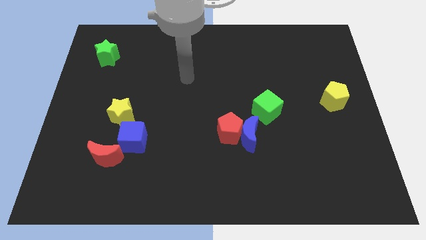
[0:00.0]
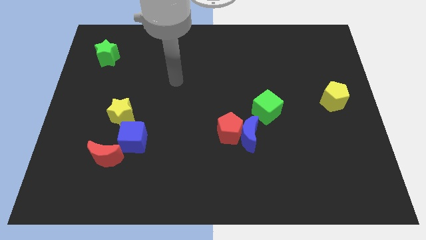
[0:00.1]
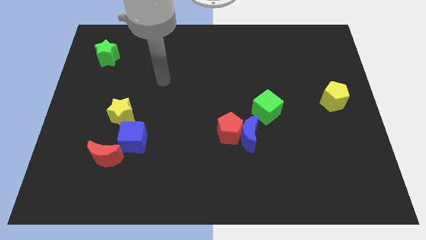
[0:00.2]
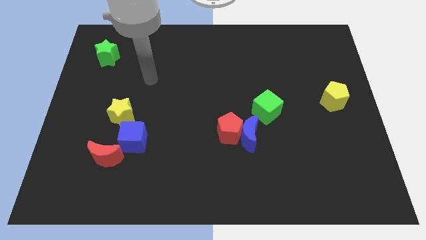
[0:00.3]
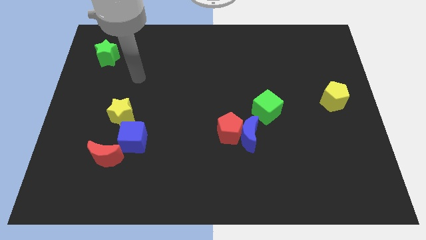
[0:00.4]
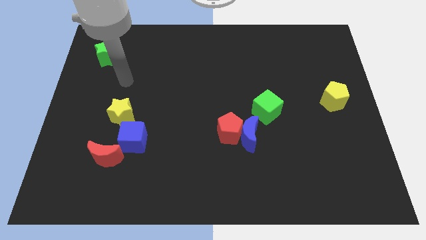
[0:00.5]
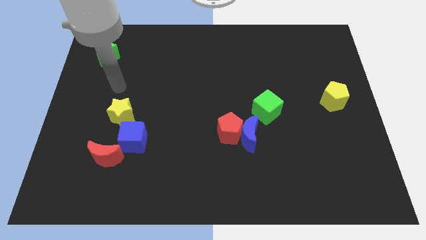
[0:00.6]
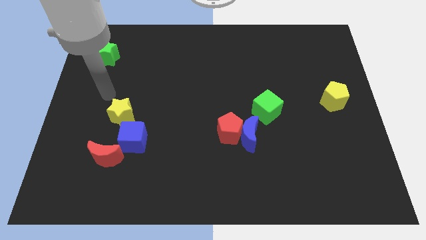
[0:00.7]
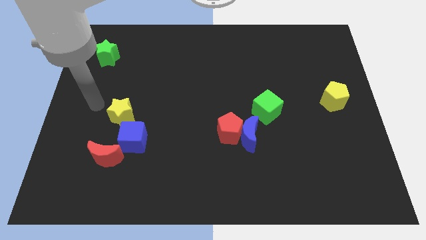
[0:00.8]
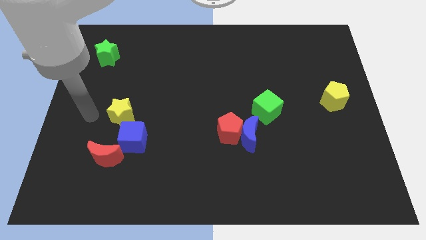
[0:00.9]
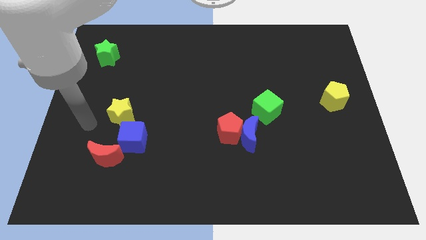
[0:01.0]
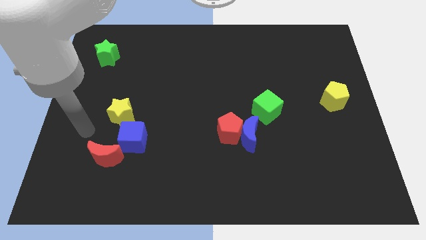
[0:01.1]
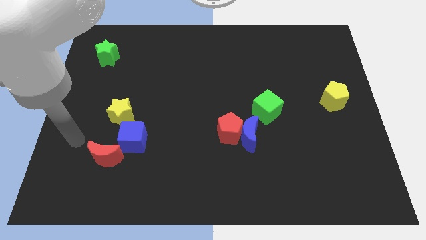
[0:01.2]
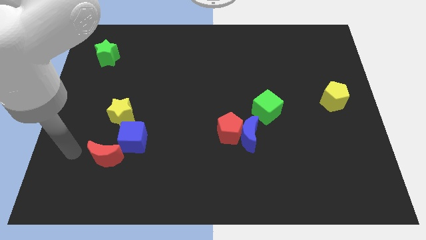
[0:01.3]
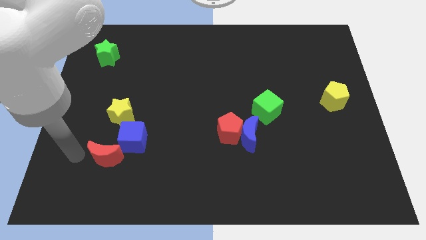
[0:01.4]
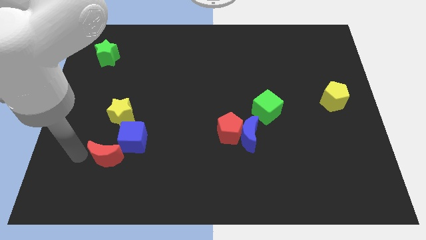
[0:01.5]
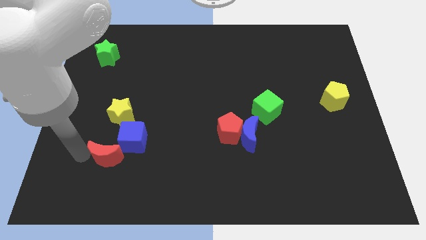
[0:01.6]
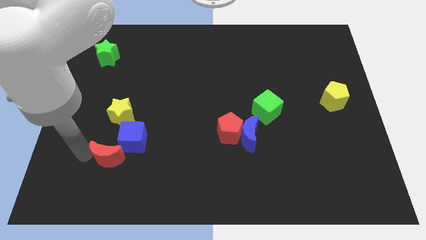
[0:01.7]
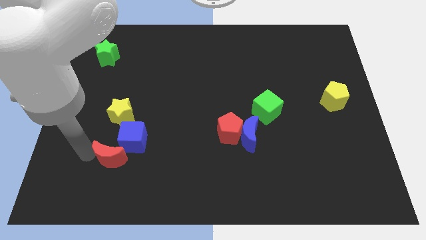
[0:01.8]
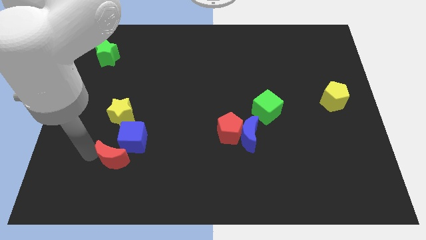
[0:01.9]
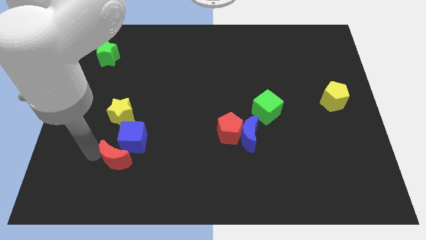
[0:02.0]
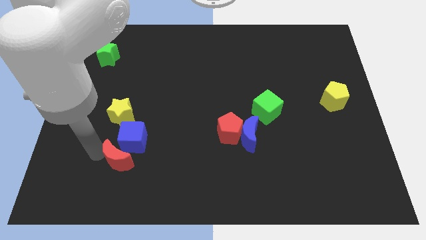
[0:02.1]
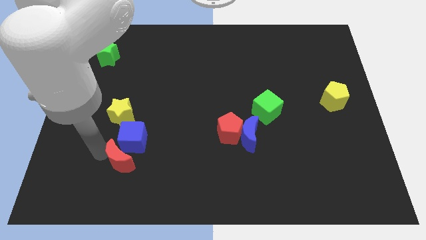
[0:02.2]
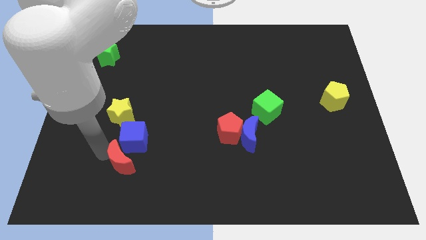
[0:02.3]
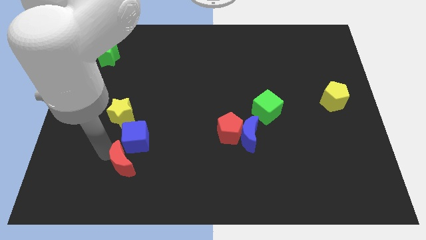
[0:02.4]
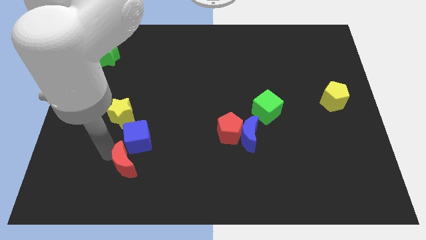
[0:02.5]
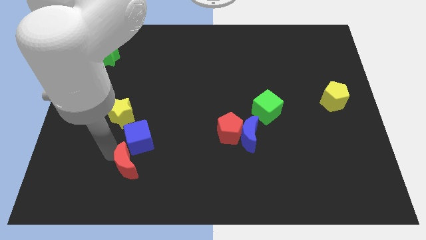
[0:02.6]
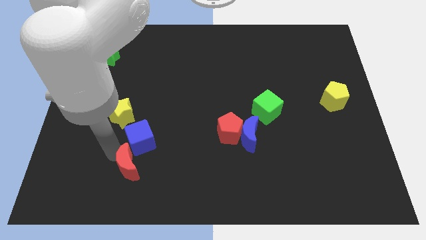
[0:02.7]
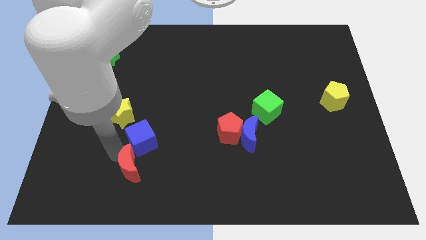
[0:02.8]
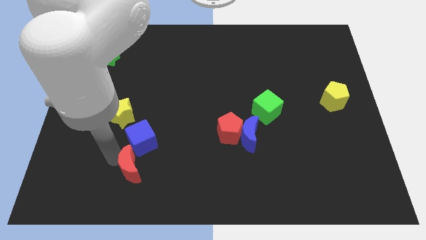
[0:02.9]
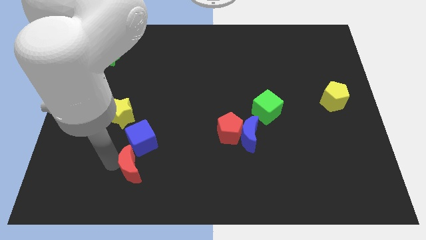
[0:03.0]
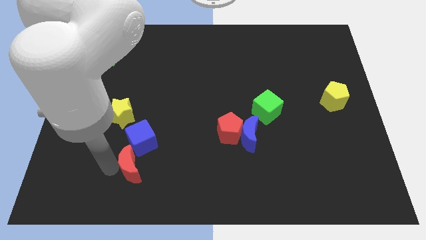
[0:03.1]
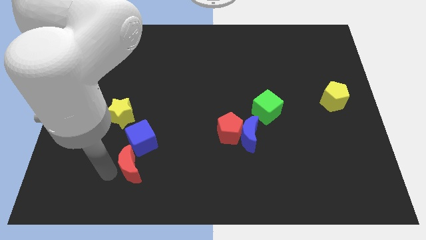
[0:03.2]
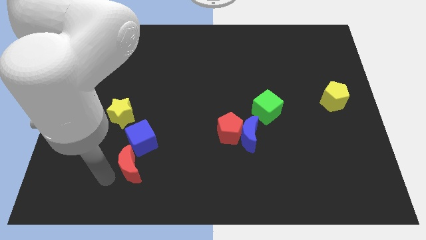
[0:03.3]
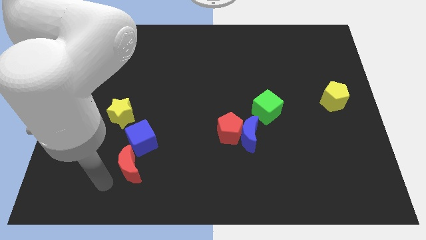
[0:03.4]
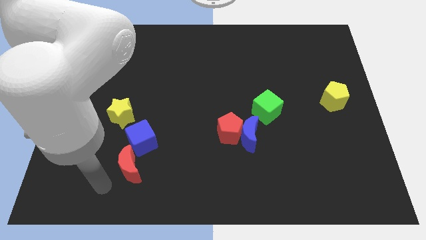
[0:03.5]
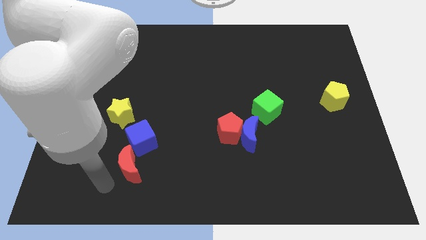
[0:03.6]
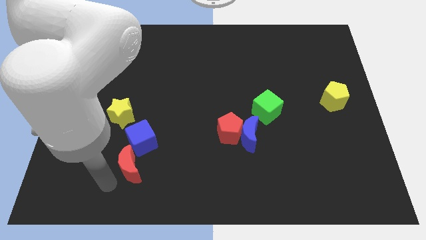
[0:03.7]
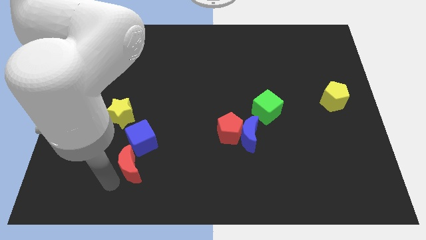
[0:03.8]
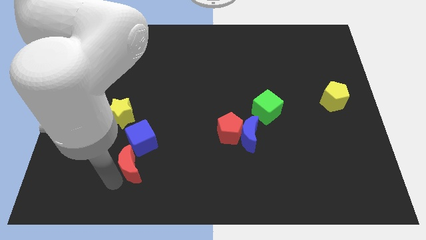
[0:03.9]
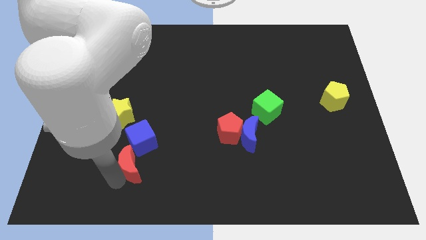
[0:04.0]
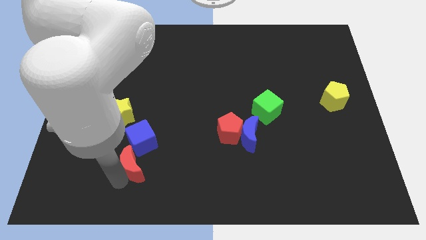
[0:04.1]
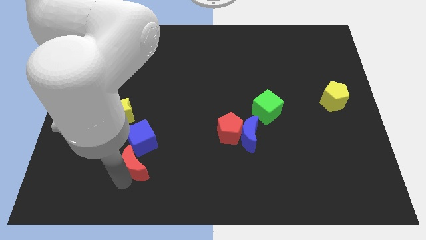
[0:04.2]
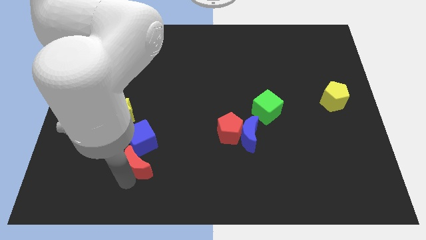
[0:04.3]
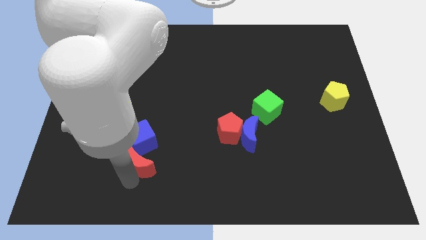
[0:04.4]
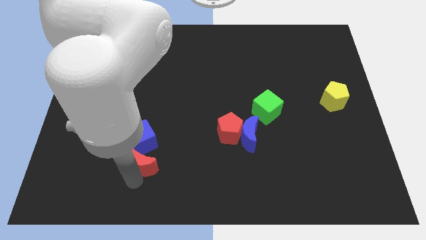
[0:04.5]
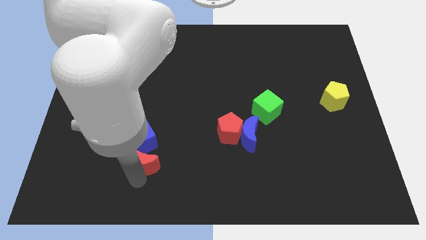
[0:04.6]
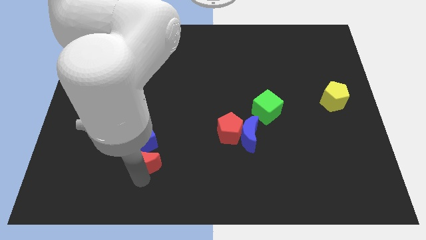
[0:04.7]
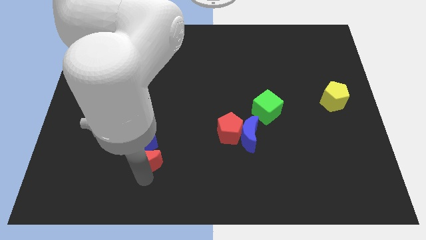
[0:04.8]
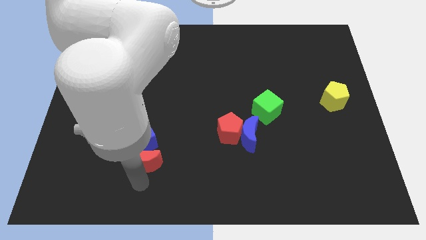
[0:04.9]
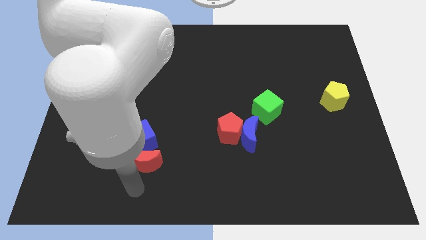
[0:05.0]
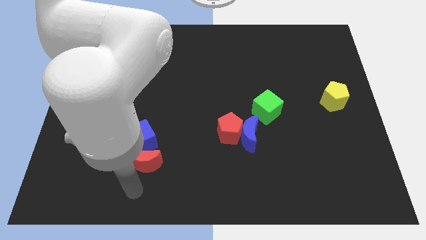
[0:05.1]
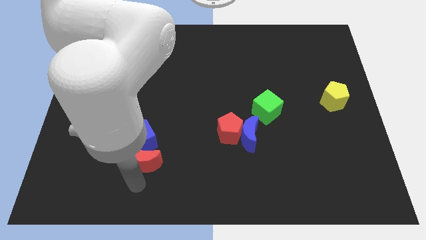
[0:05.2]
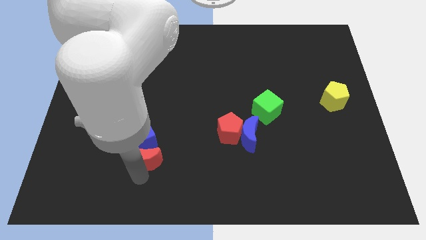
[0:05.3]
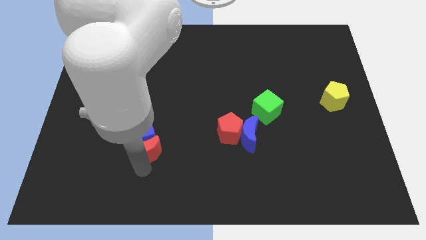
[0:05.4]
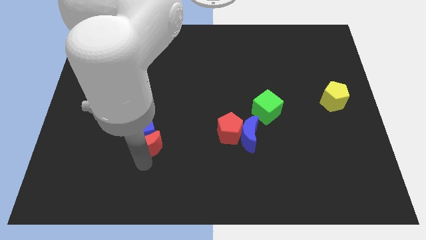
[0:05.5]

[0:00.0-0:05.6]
slightly move the red moon upwards and to the right diagonally

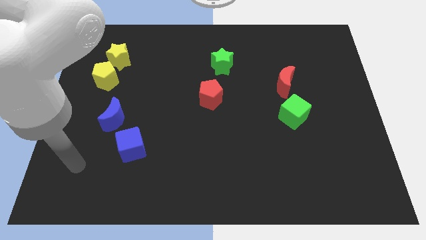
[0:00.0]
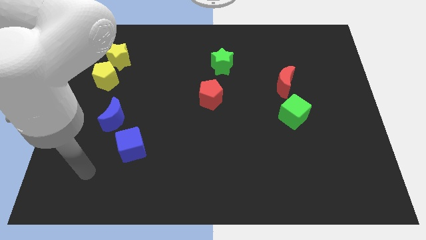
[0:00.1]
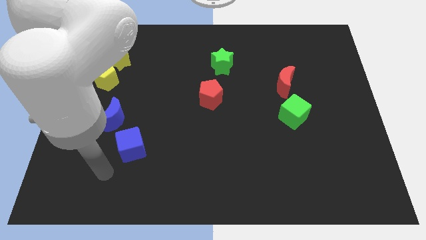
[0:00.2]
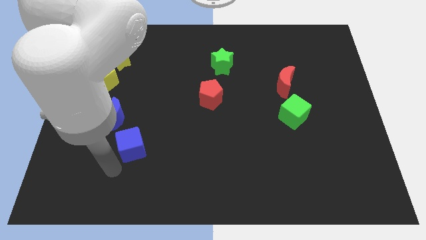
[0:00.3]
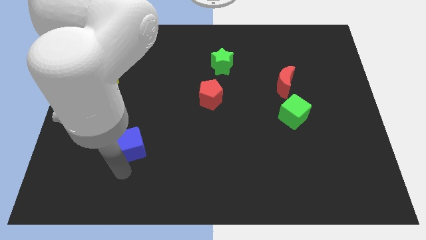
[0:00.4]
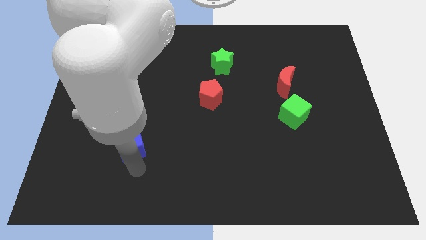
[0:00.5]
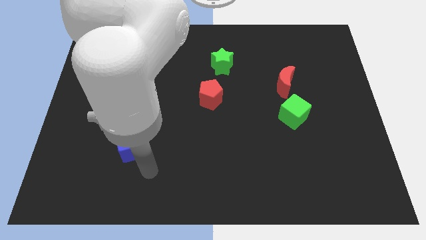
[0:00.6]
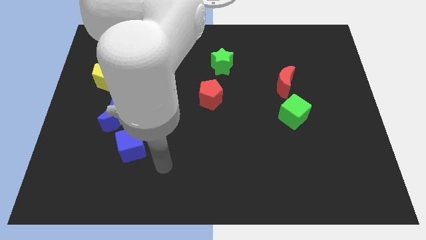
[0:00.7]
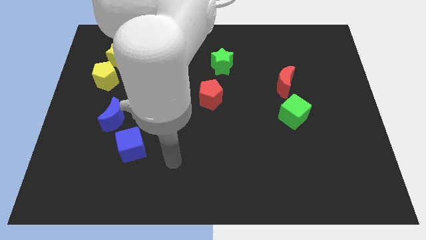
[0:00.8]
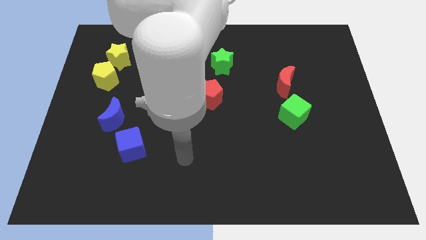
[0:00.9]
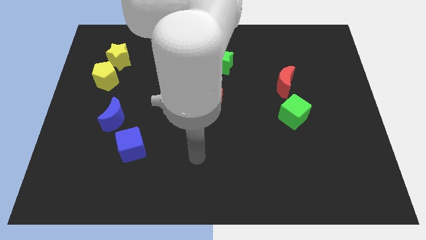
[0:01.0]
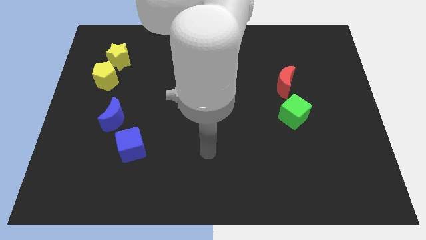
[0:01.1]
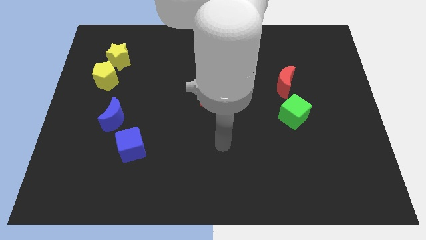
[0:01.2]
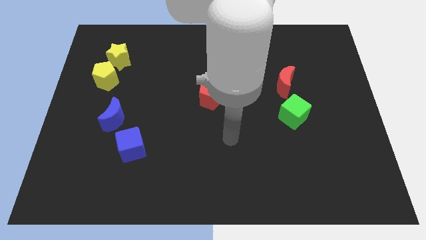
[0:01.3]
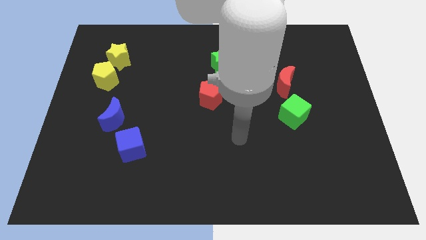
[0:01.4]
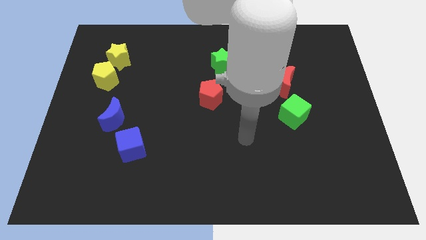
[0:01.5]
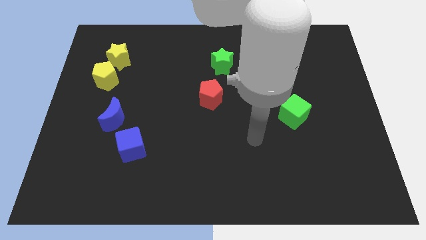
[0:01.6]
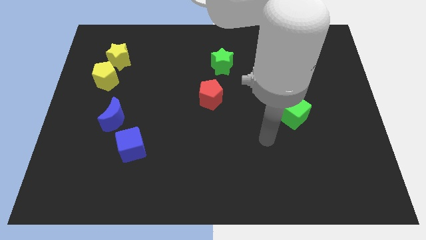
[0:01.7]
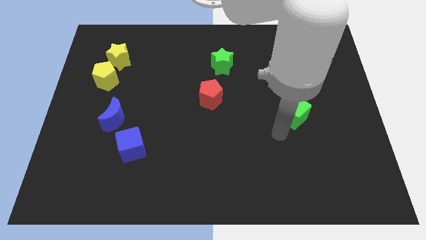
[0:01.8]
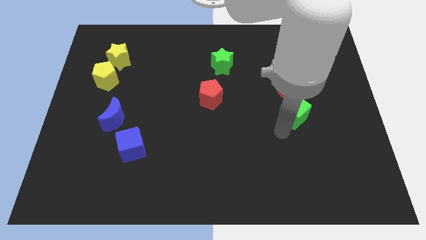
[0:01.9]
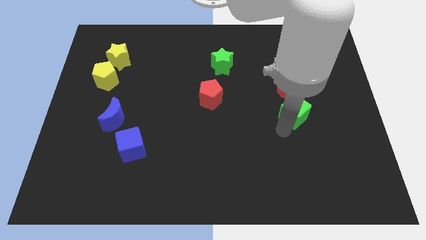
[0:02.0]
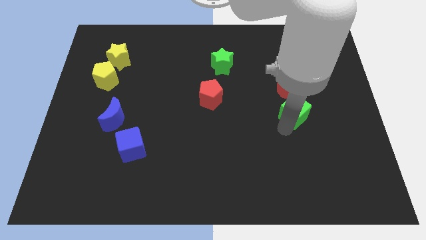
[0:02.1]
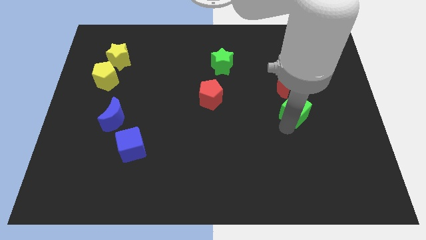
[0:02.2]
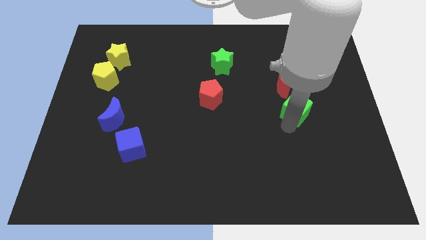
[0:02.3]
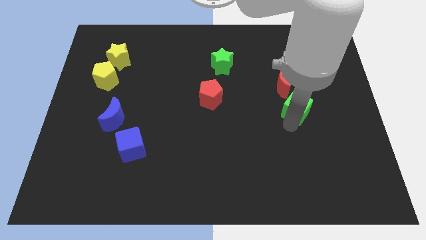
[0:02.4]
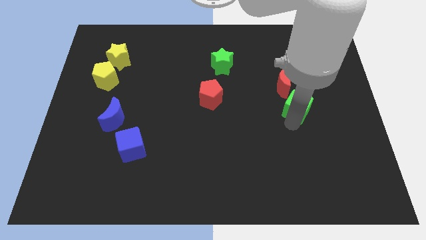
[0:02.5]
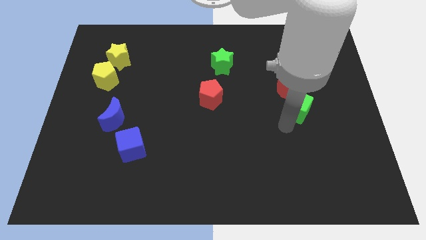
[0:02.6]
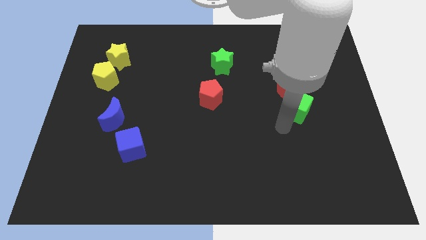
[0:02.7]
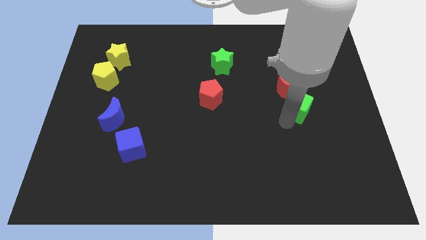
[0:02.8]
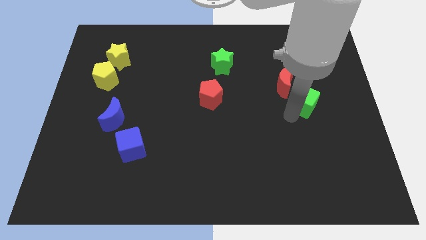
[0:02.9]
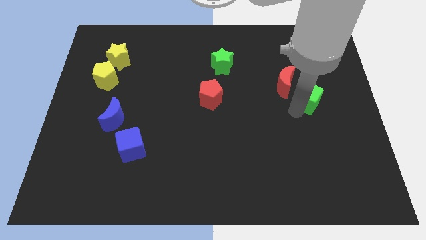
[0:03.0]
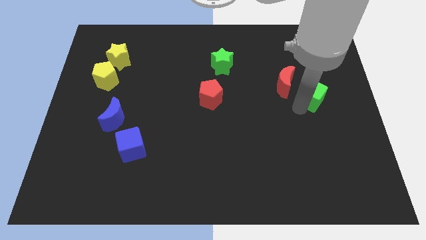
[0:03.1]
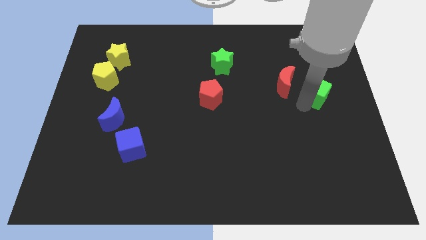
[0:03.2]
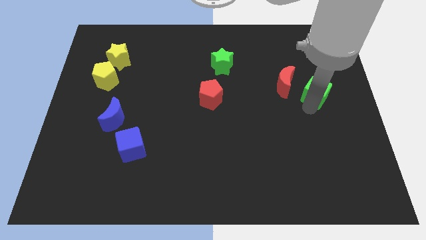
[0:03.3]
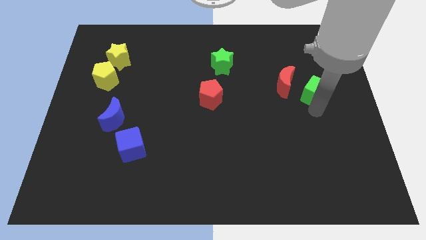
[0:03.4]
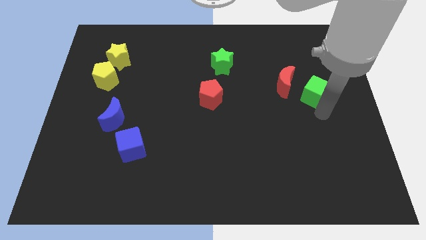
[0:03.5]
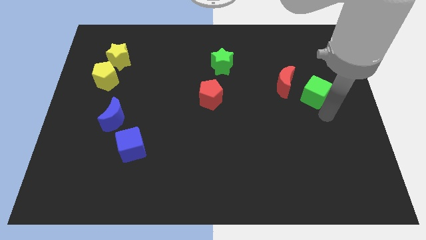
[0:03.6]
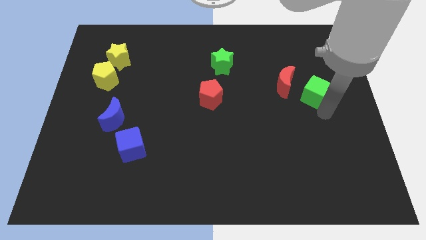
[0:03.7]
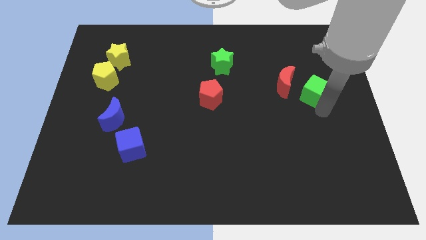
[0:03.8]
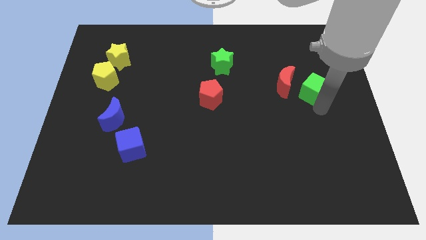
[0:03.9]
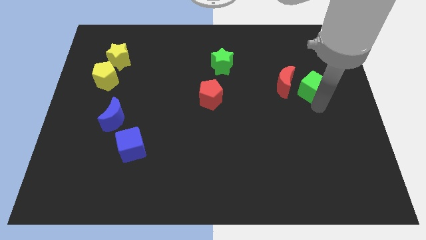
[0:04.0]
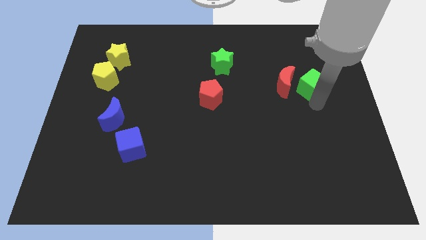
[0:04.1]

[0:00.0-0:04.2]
slightly push the green cube upwards
